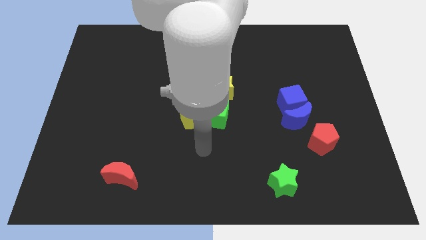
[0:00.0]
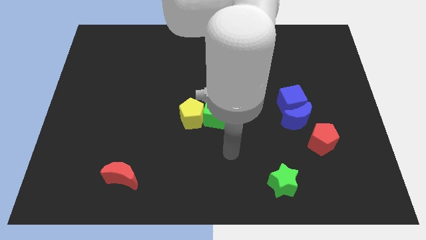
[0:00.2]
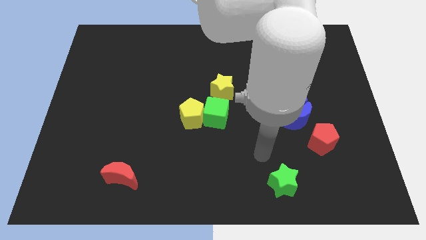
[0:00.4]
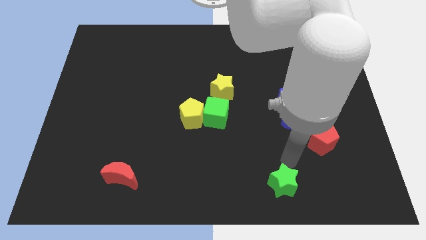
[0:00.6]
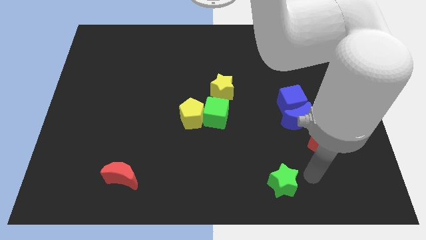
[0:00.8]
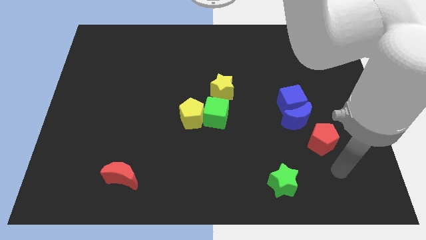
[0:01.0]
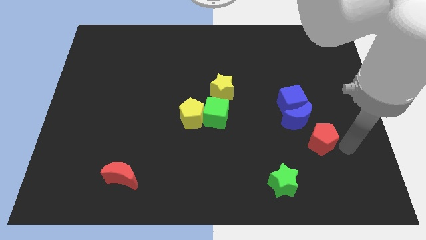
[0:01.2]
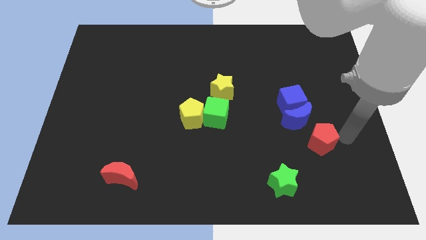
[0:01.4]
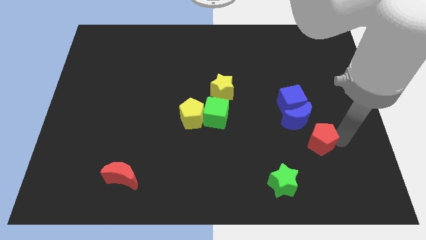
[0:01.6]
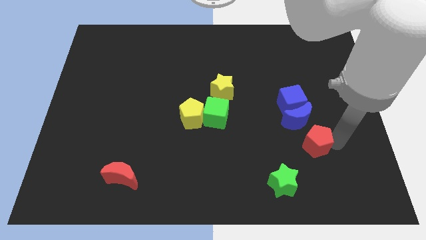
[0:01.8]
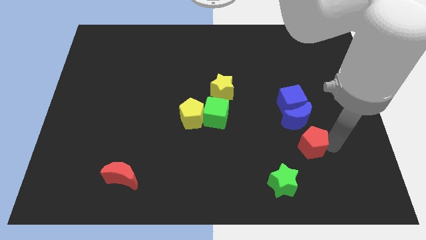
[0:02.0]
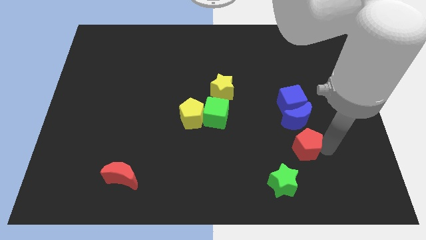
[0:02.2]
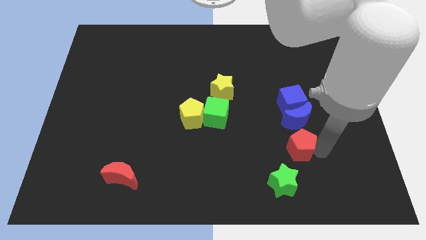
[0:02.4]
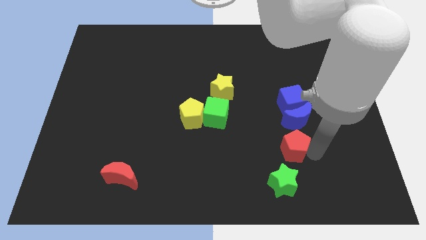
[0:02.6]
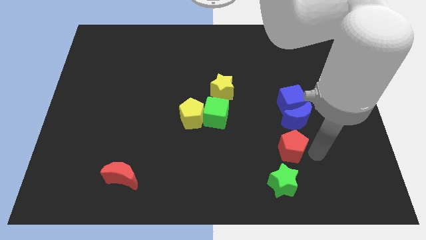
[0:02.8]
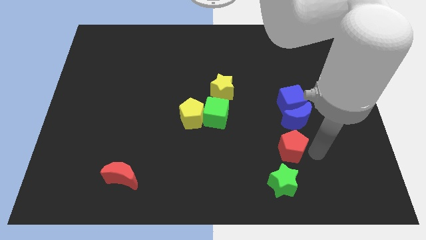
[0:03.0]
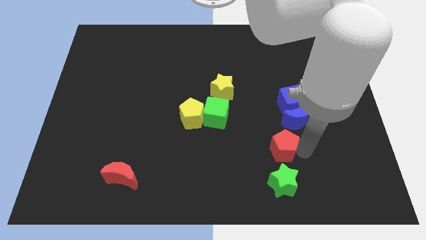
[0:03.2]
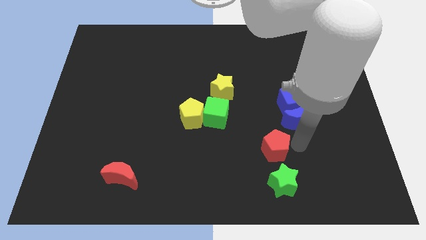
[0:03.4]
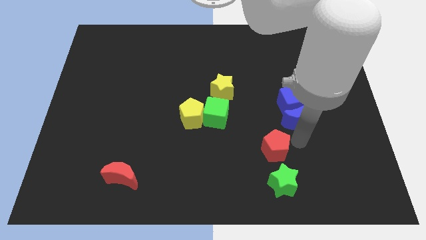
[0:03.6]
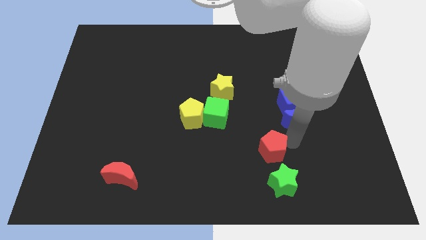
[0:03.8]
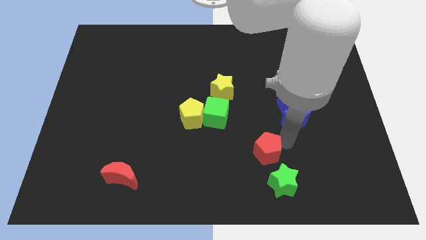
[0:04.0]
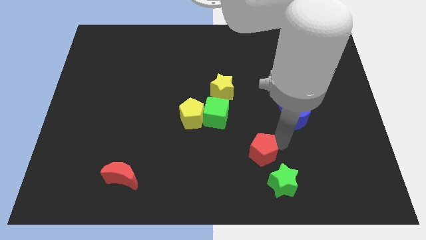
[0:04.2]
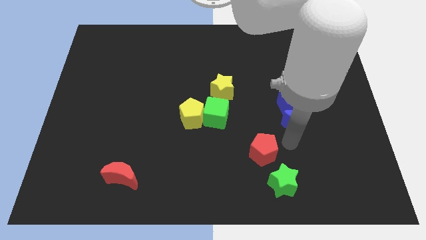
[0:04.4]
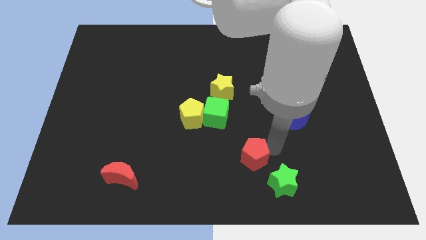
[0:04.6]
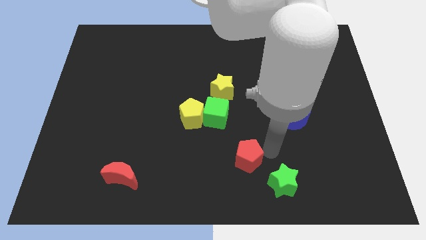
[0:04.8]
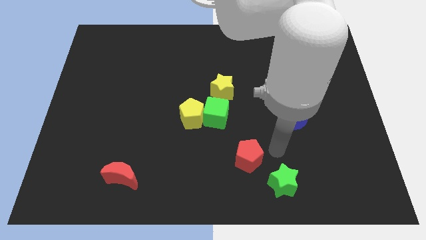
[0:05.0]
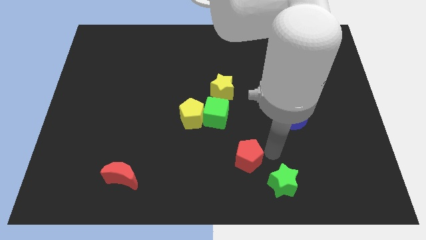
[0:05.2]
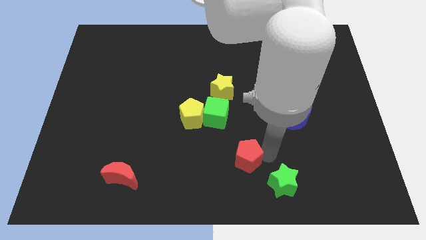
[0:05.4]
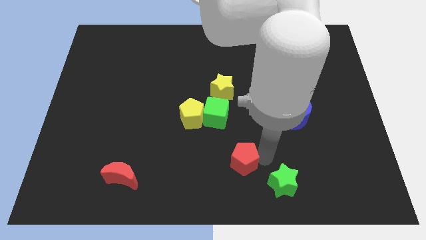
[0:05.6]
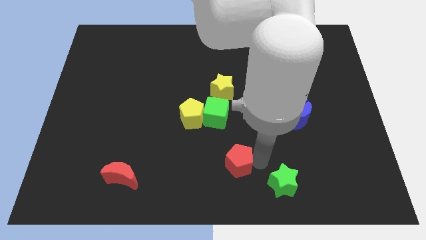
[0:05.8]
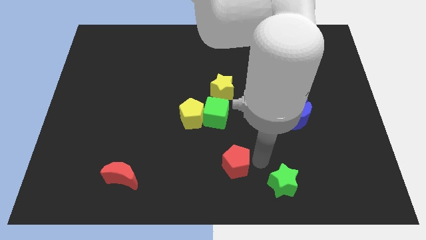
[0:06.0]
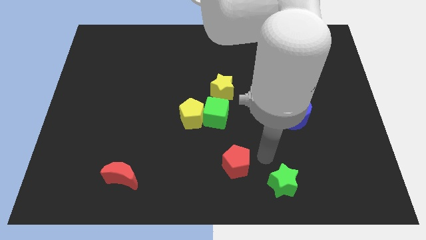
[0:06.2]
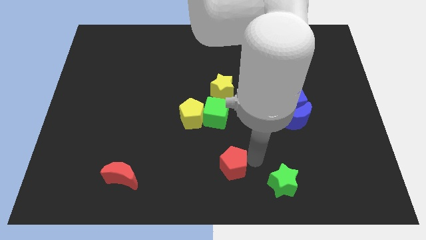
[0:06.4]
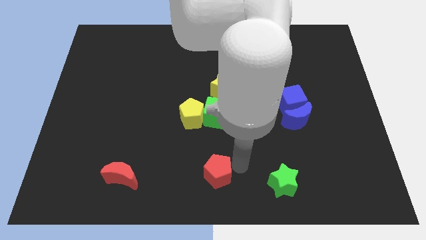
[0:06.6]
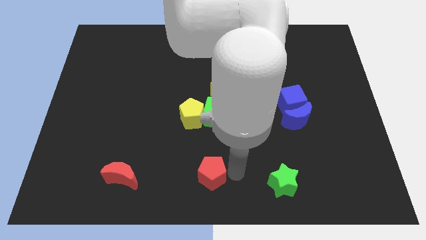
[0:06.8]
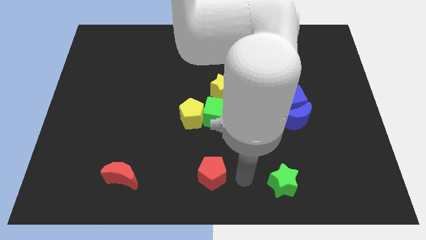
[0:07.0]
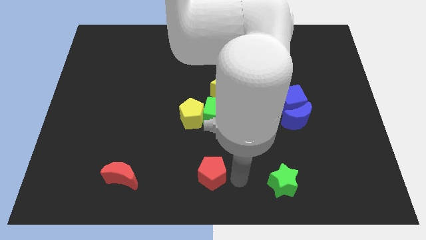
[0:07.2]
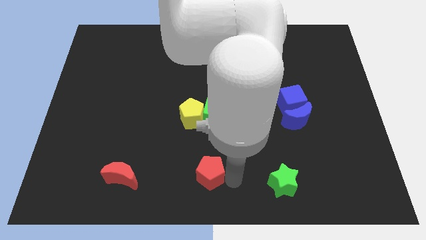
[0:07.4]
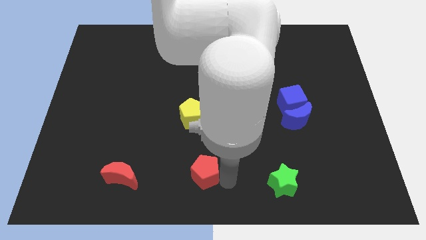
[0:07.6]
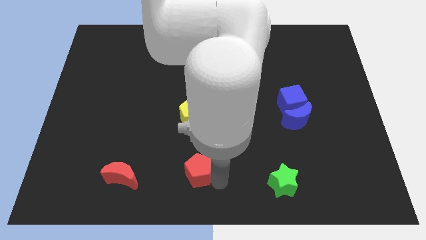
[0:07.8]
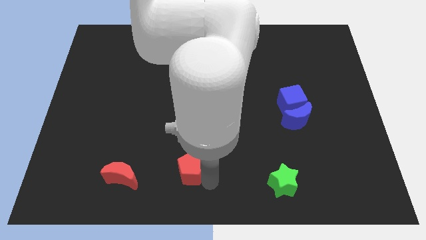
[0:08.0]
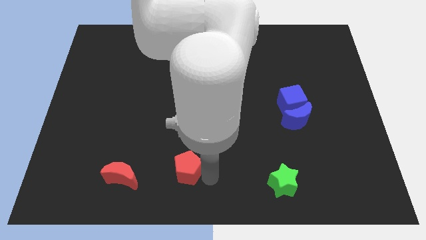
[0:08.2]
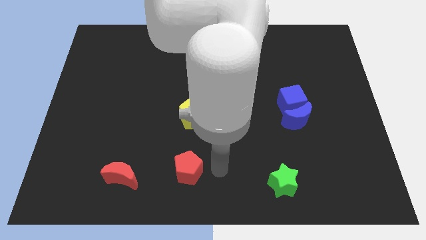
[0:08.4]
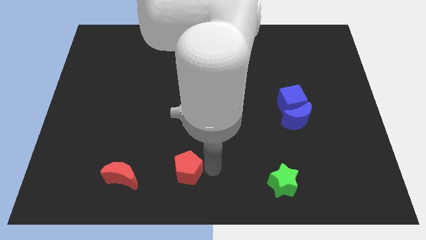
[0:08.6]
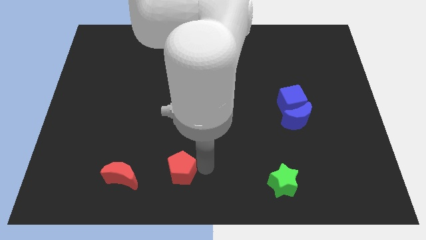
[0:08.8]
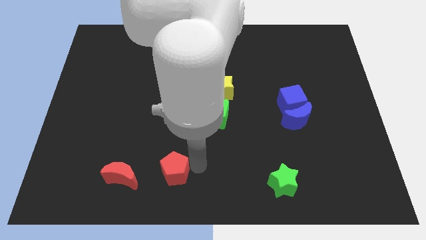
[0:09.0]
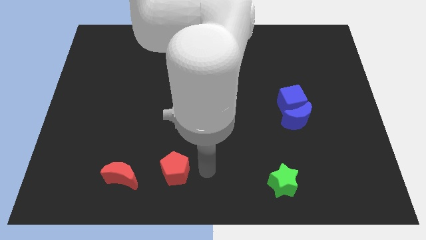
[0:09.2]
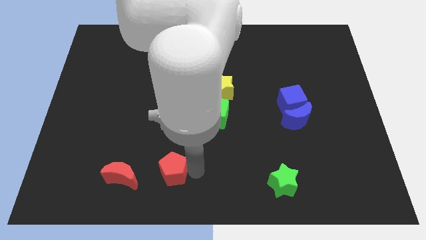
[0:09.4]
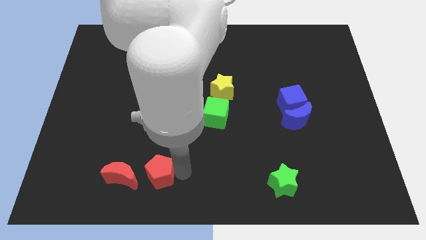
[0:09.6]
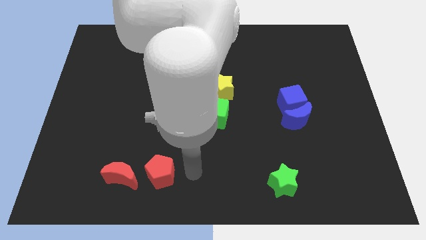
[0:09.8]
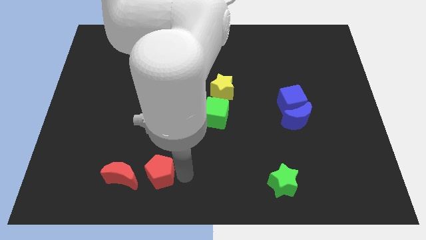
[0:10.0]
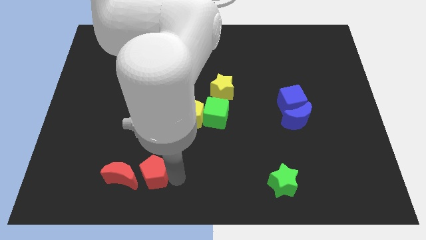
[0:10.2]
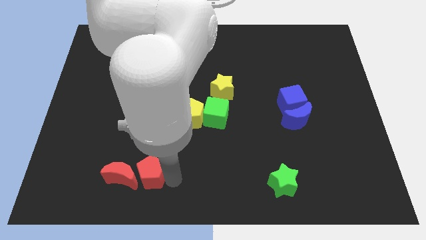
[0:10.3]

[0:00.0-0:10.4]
move the red pentagon towards the red moon

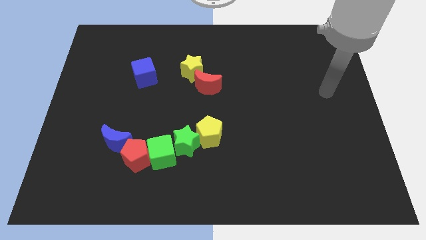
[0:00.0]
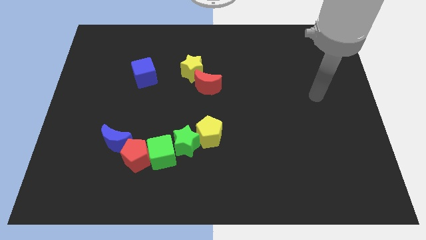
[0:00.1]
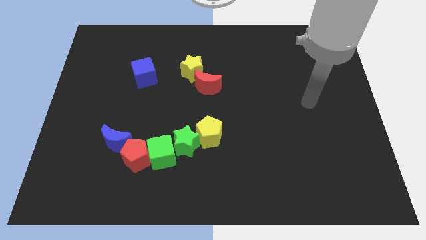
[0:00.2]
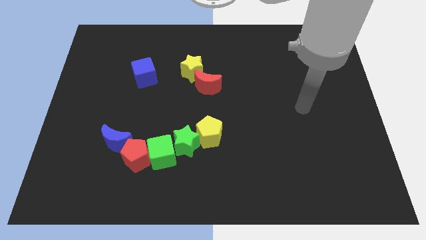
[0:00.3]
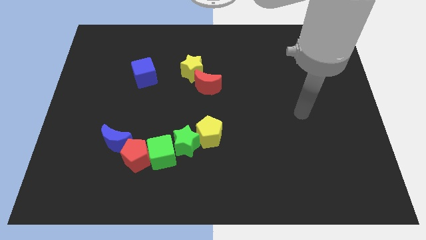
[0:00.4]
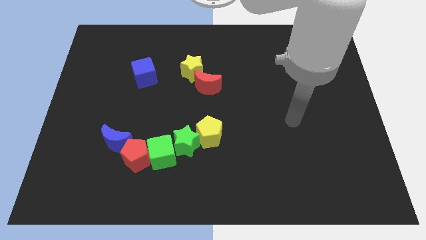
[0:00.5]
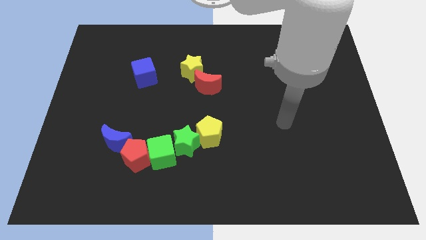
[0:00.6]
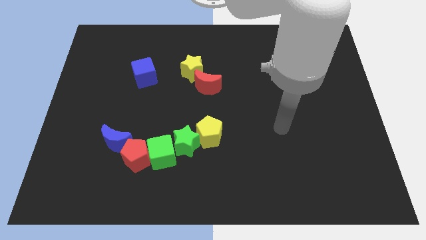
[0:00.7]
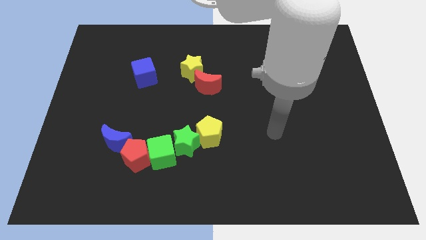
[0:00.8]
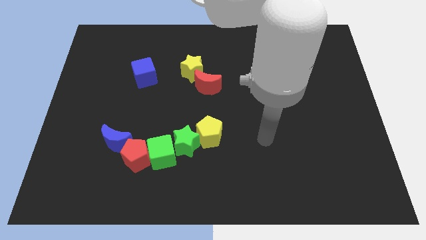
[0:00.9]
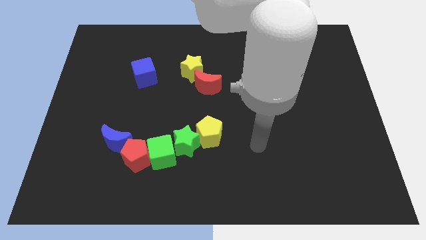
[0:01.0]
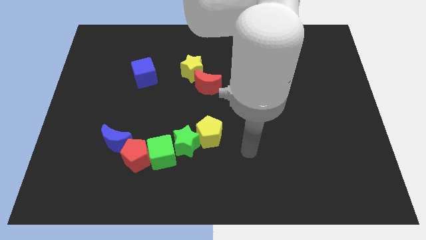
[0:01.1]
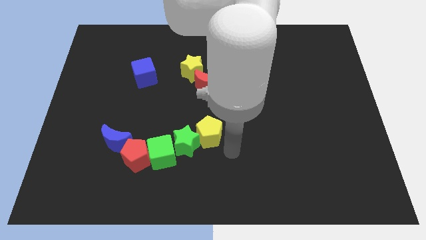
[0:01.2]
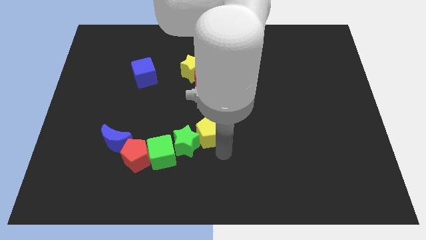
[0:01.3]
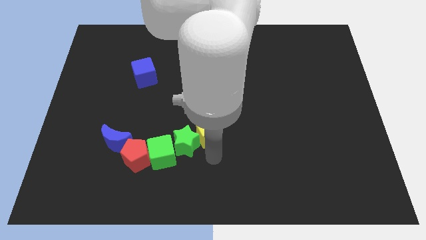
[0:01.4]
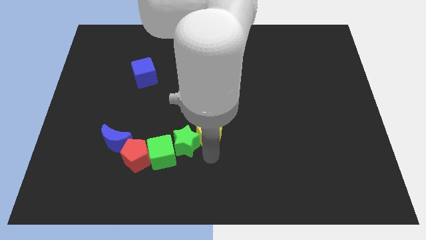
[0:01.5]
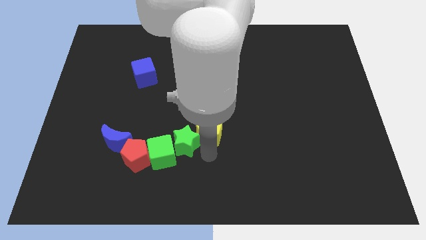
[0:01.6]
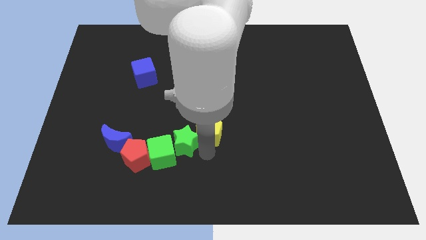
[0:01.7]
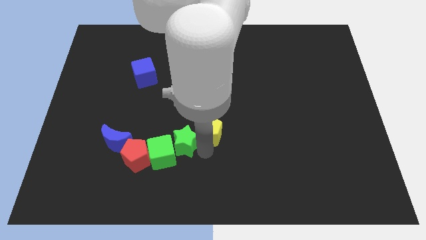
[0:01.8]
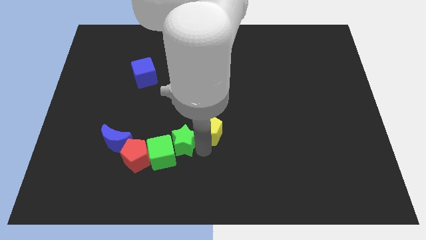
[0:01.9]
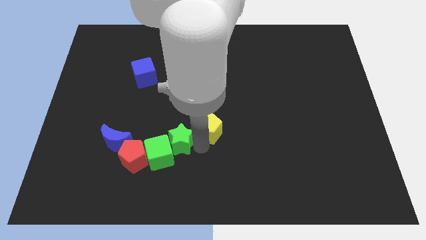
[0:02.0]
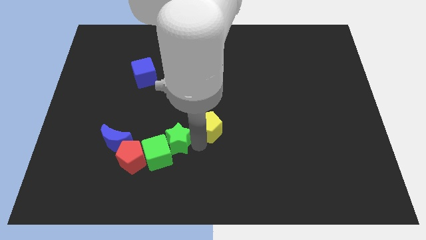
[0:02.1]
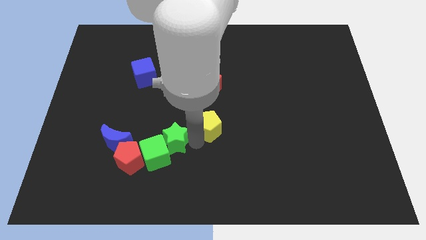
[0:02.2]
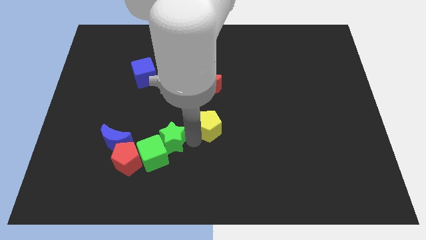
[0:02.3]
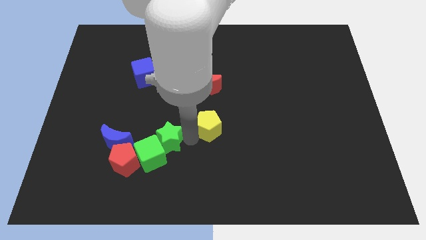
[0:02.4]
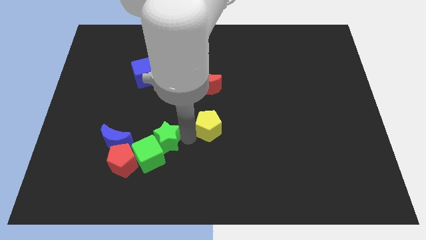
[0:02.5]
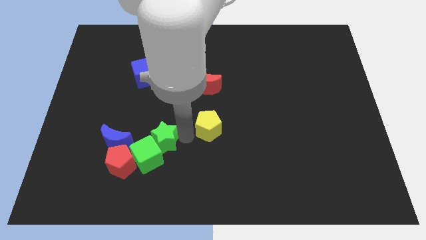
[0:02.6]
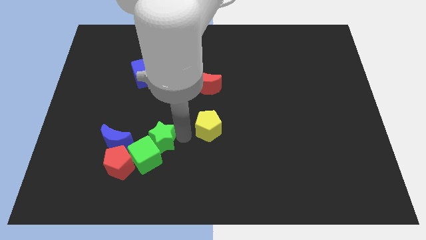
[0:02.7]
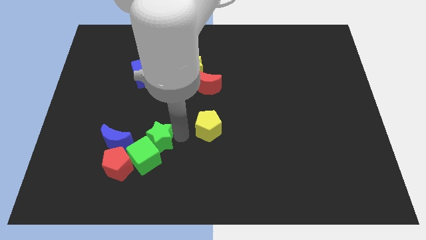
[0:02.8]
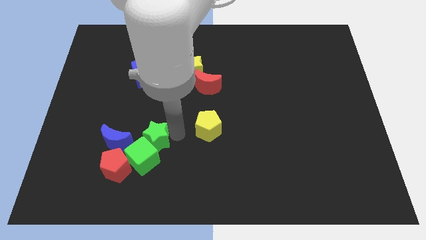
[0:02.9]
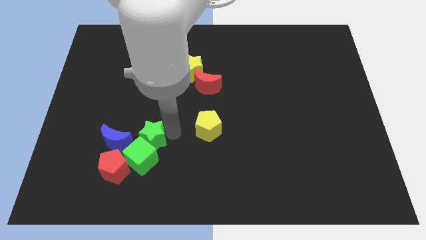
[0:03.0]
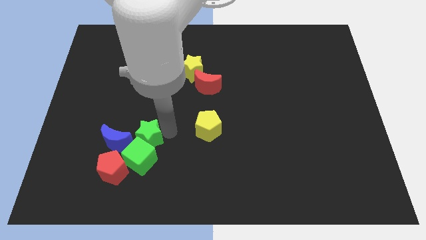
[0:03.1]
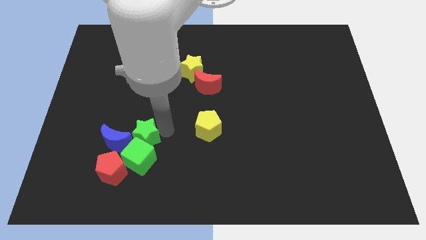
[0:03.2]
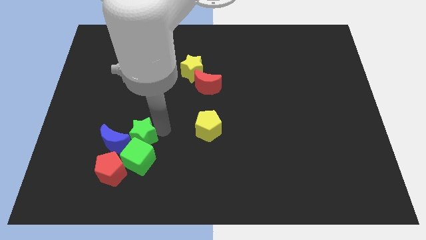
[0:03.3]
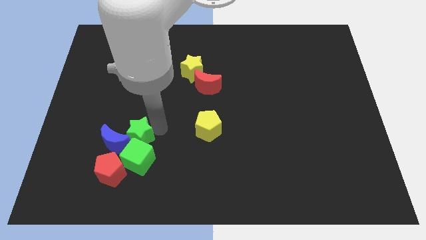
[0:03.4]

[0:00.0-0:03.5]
push the green star next to the blue moon
